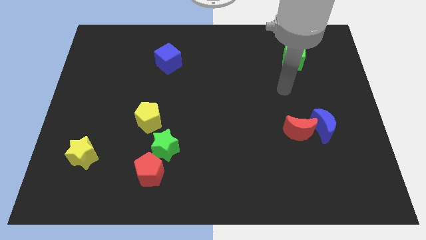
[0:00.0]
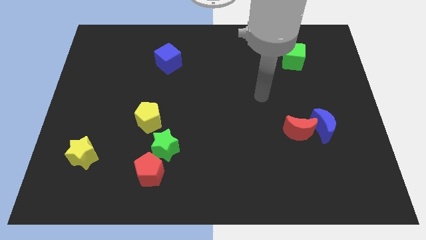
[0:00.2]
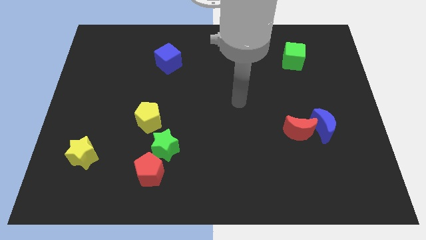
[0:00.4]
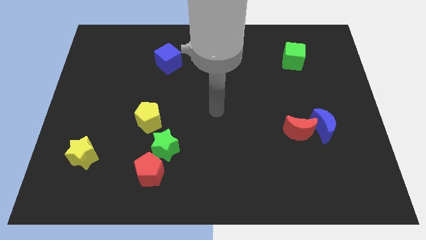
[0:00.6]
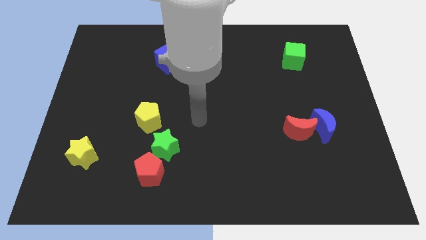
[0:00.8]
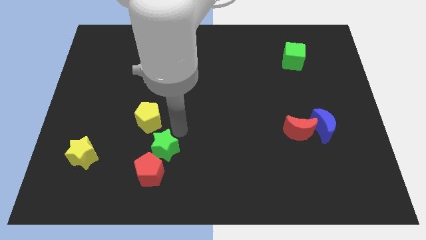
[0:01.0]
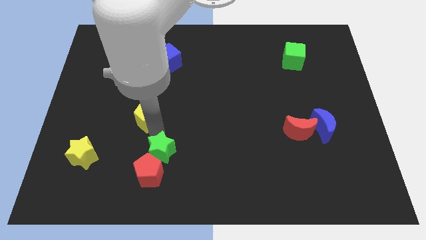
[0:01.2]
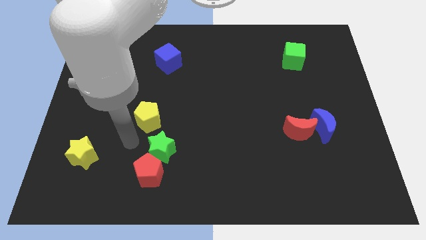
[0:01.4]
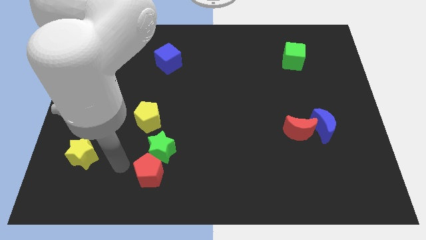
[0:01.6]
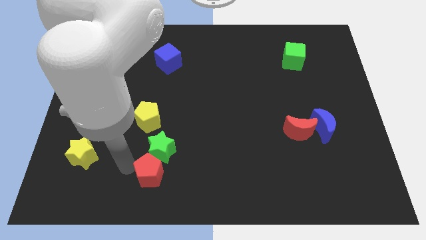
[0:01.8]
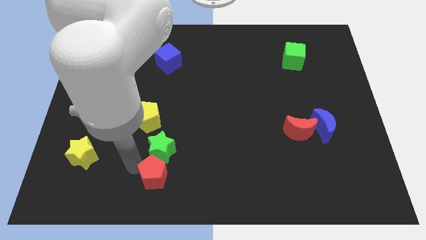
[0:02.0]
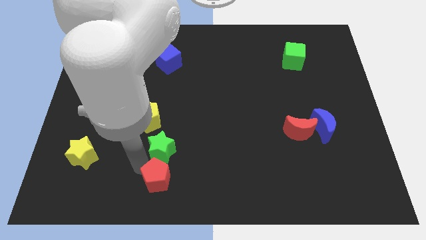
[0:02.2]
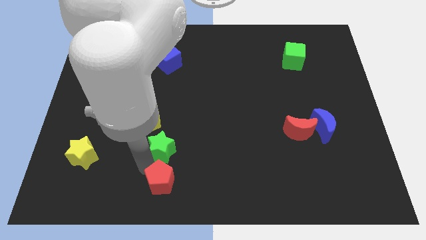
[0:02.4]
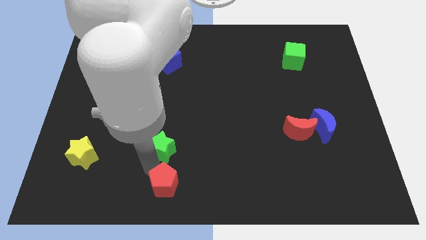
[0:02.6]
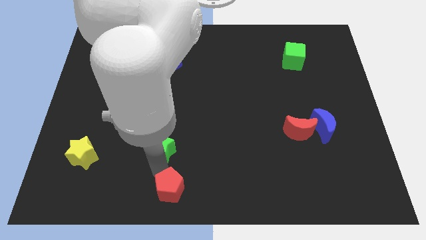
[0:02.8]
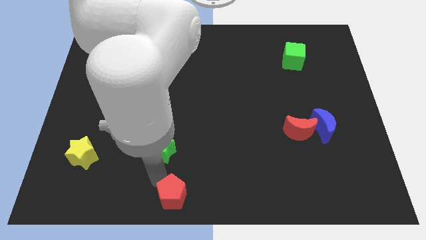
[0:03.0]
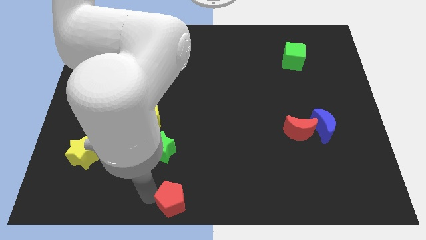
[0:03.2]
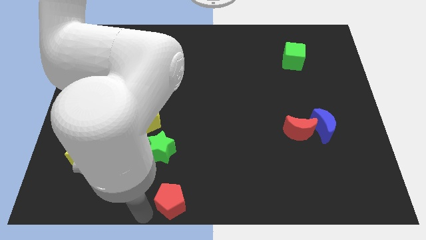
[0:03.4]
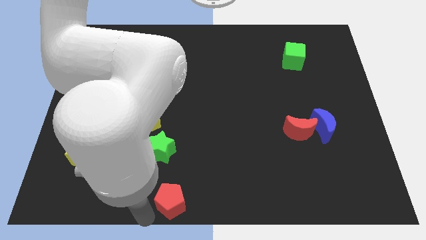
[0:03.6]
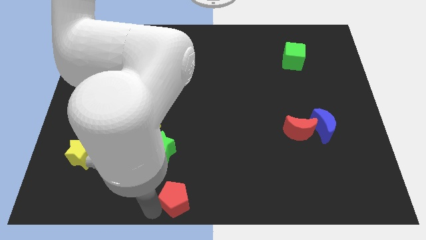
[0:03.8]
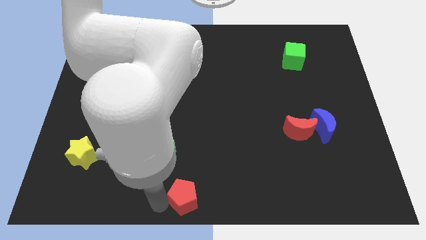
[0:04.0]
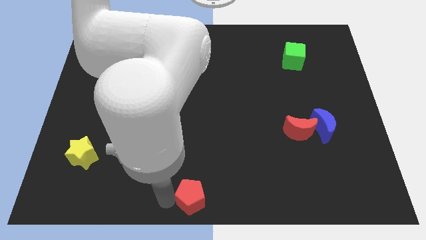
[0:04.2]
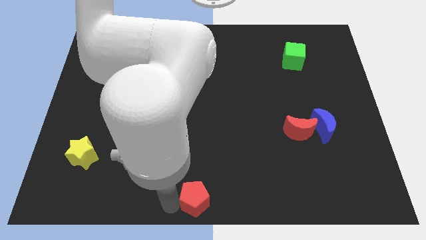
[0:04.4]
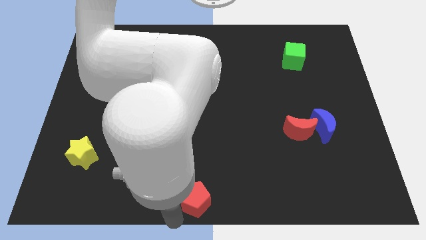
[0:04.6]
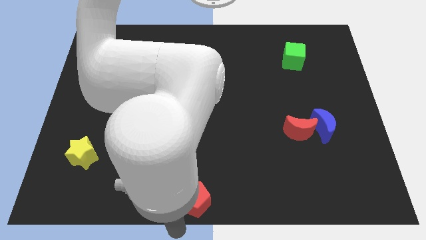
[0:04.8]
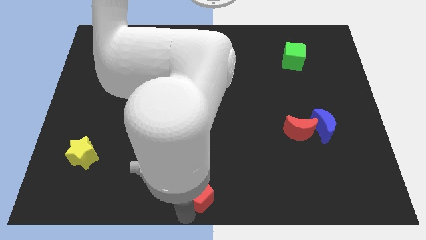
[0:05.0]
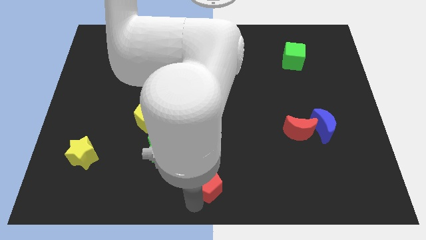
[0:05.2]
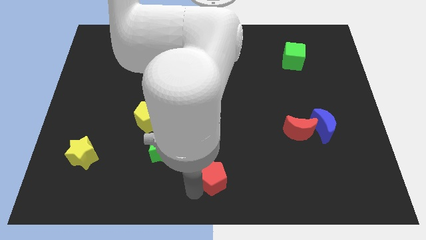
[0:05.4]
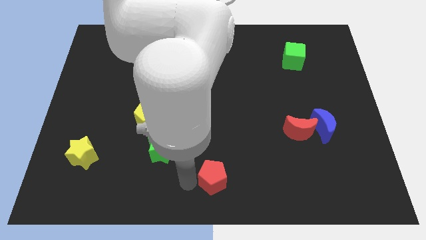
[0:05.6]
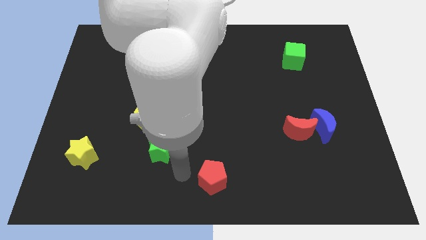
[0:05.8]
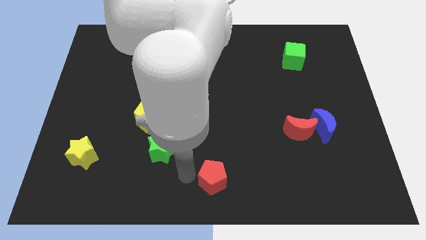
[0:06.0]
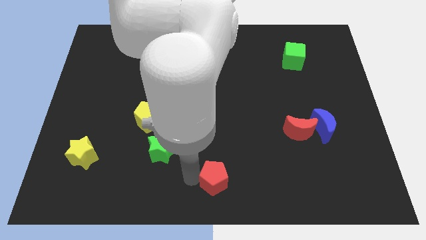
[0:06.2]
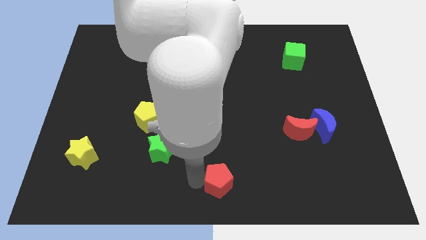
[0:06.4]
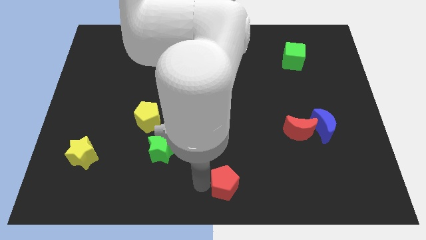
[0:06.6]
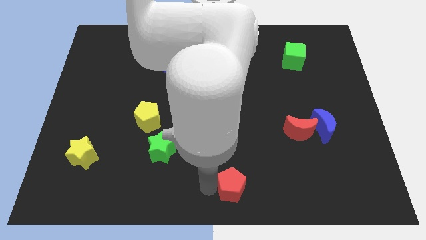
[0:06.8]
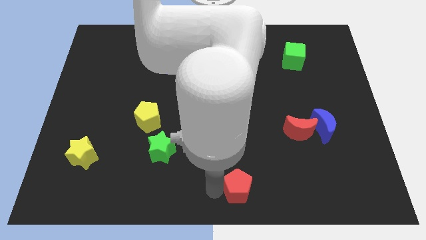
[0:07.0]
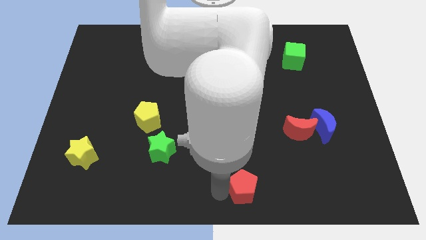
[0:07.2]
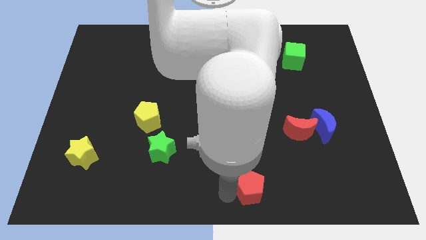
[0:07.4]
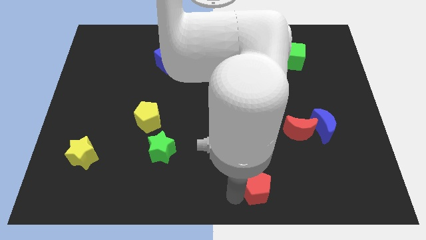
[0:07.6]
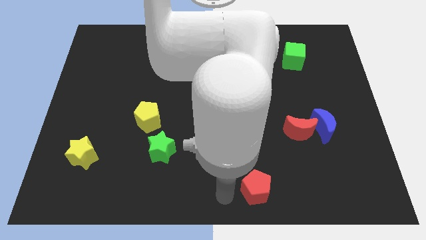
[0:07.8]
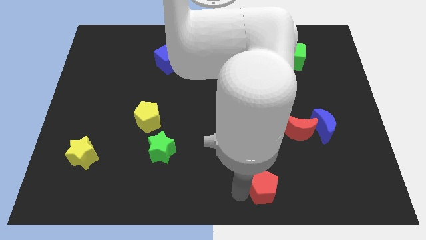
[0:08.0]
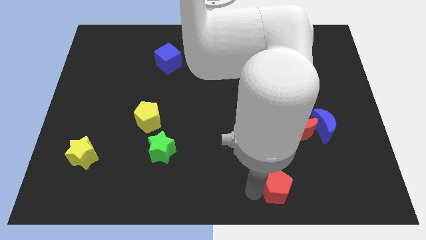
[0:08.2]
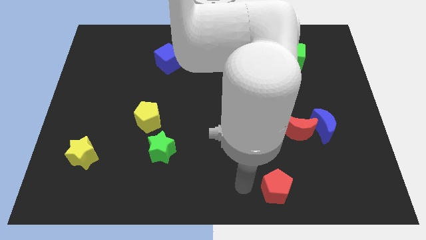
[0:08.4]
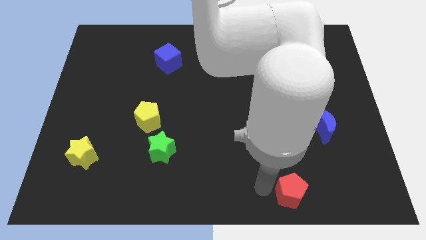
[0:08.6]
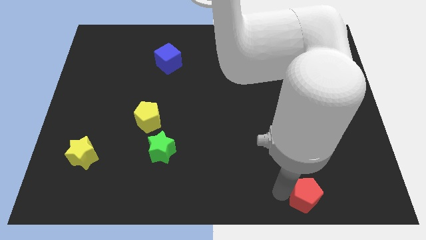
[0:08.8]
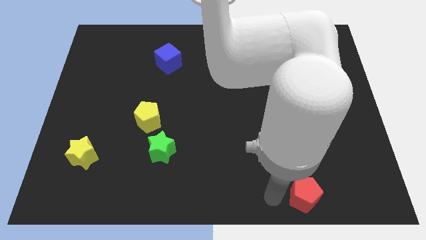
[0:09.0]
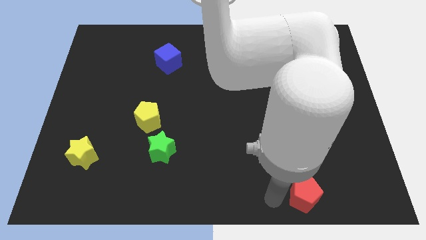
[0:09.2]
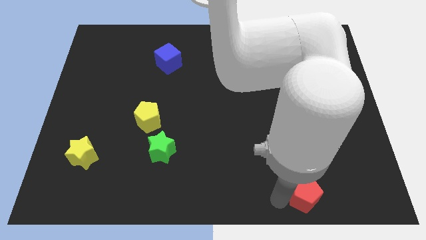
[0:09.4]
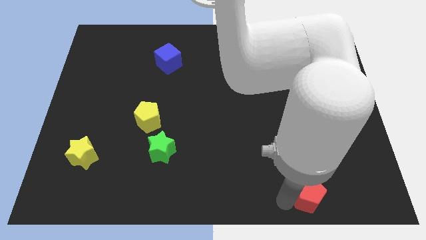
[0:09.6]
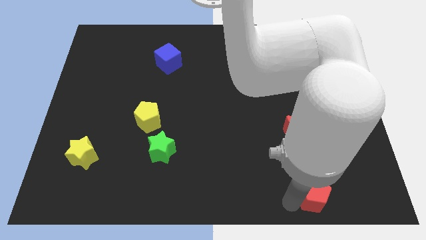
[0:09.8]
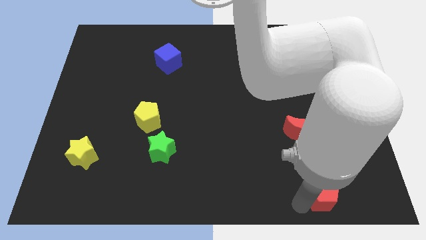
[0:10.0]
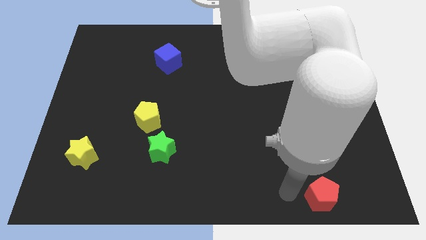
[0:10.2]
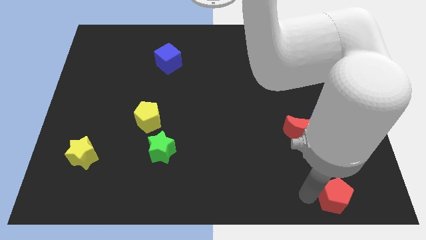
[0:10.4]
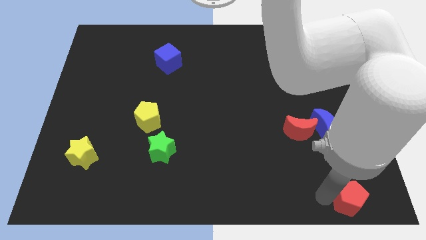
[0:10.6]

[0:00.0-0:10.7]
put the red pentagon to the lower right corner
